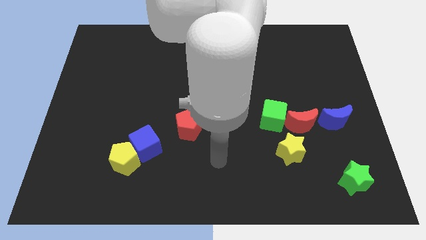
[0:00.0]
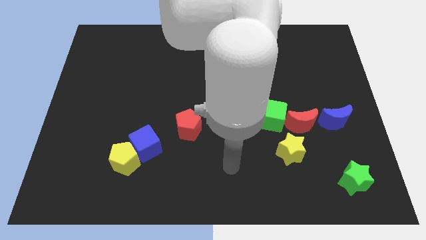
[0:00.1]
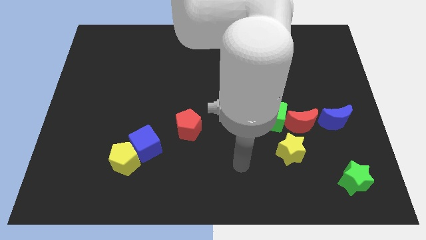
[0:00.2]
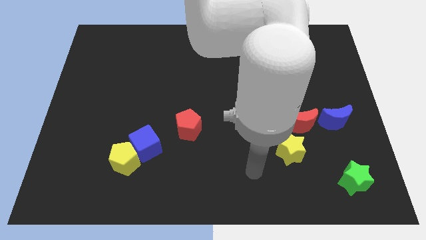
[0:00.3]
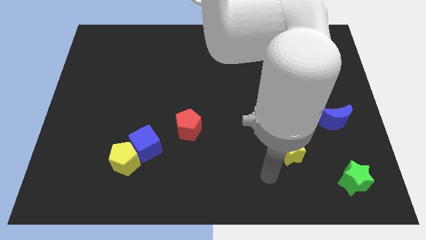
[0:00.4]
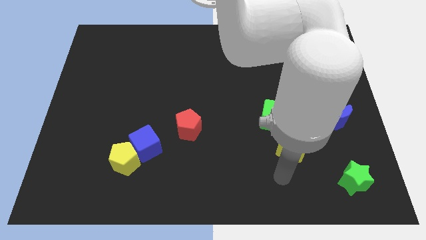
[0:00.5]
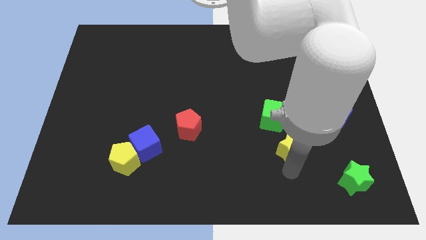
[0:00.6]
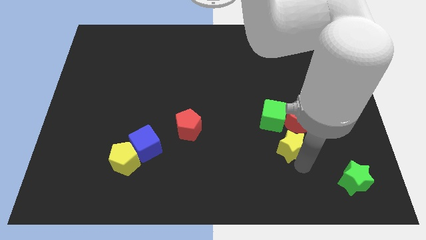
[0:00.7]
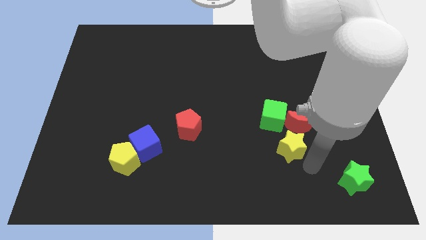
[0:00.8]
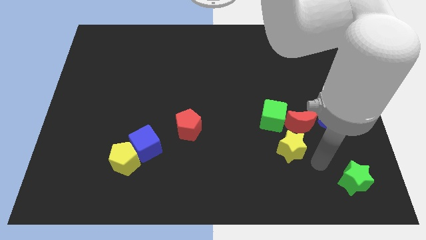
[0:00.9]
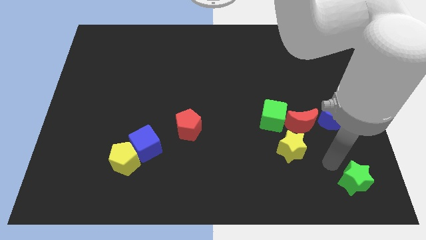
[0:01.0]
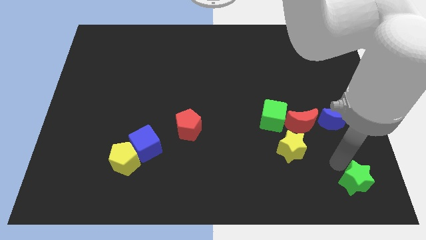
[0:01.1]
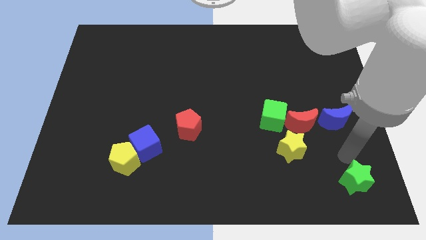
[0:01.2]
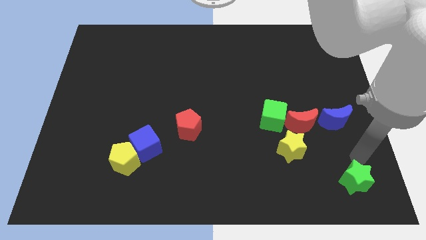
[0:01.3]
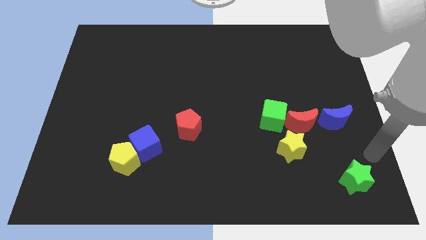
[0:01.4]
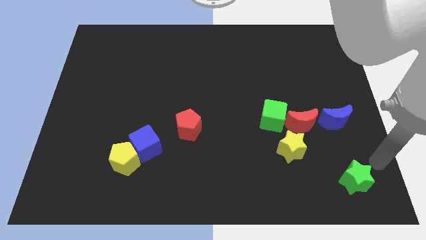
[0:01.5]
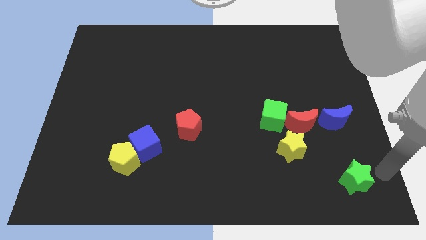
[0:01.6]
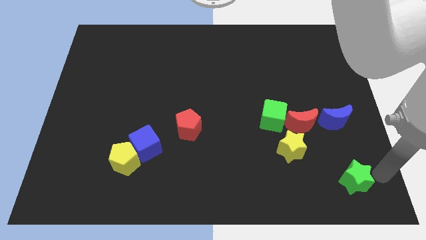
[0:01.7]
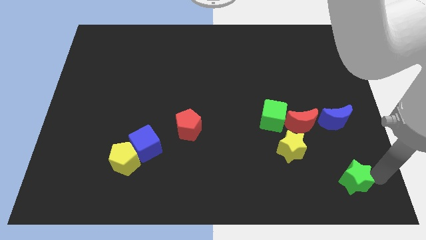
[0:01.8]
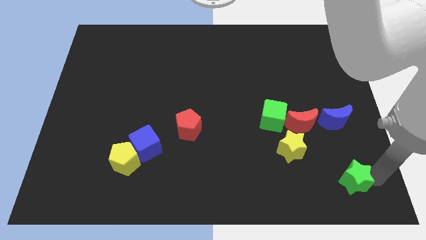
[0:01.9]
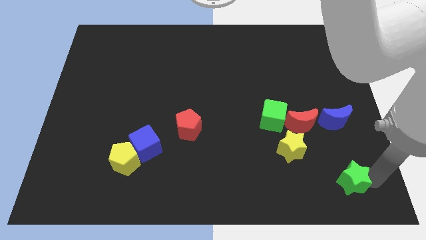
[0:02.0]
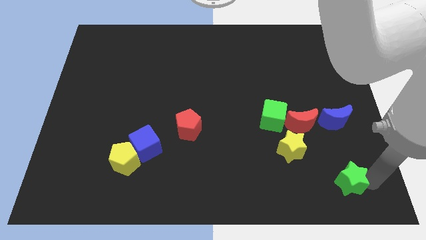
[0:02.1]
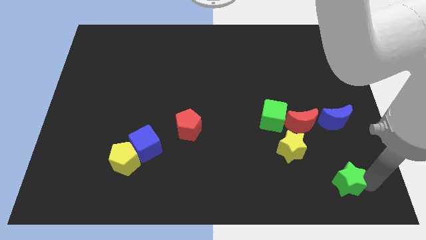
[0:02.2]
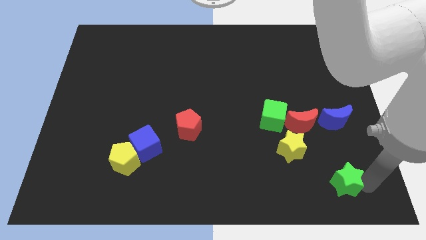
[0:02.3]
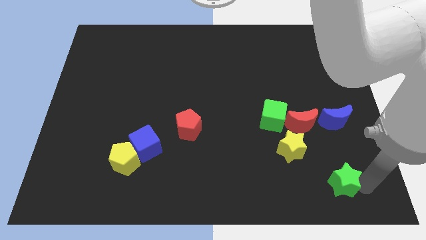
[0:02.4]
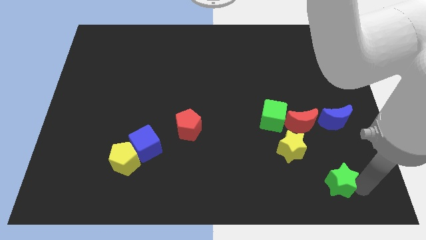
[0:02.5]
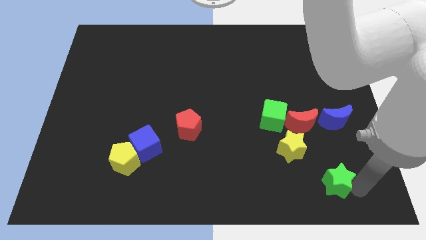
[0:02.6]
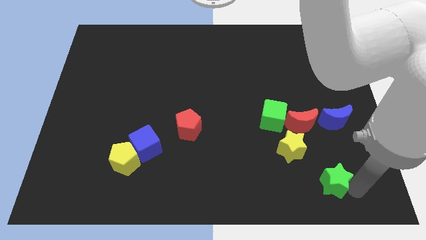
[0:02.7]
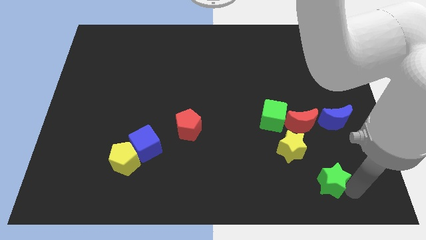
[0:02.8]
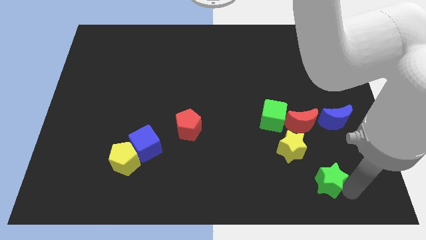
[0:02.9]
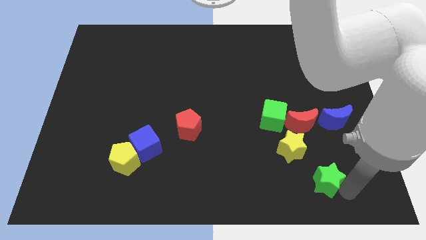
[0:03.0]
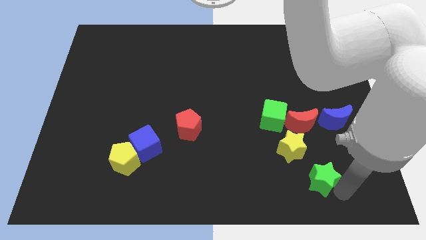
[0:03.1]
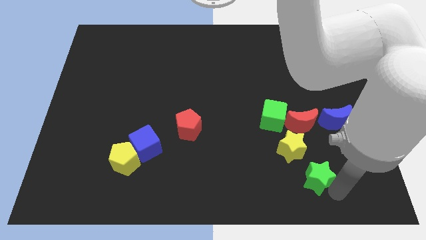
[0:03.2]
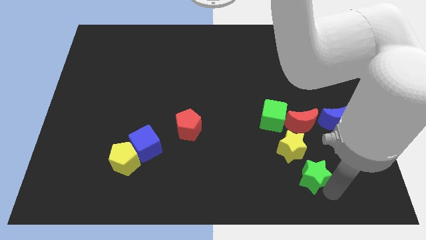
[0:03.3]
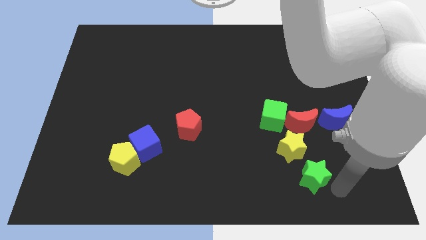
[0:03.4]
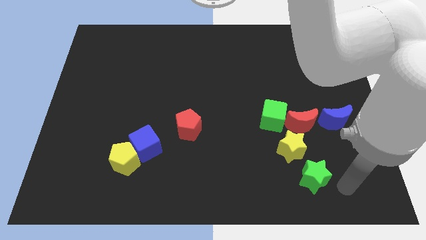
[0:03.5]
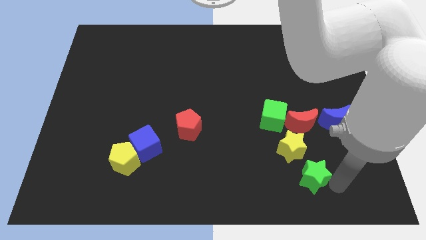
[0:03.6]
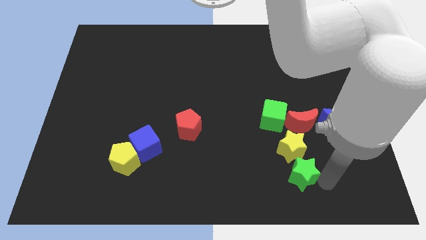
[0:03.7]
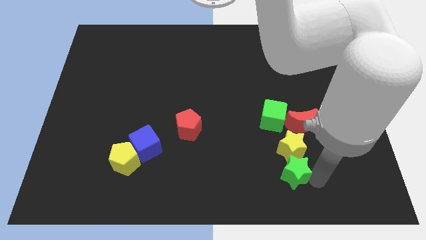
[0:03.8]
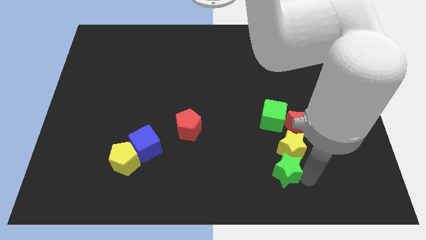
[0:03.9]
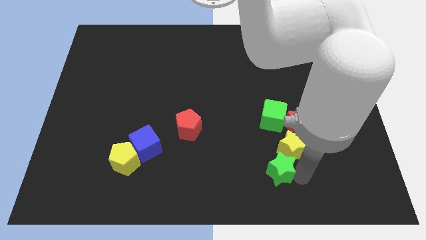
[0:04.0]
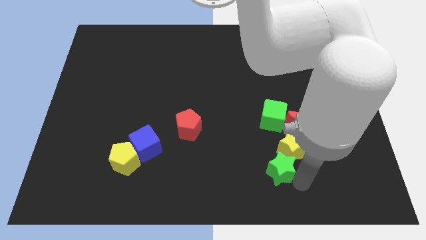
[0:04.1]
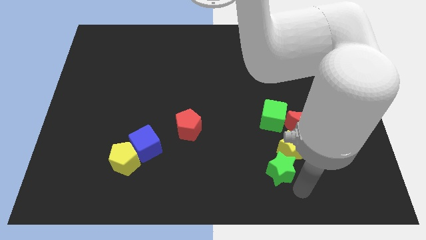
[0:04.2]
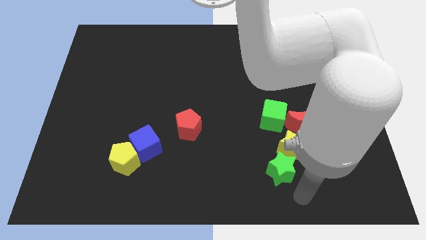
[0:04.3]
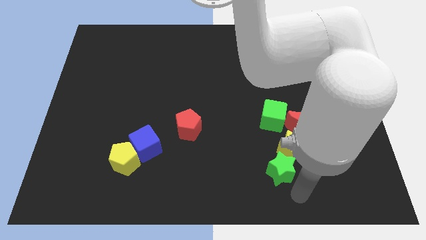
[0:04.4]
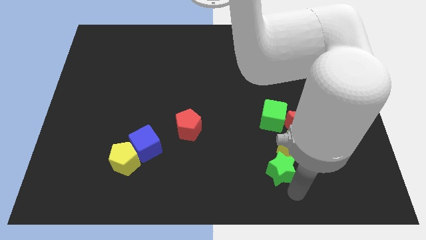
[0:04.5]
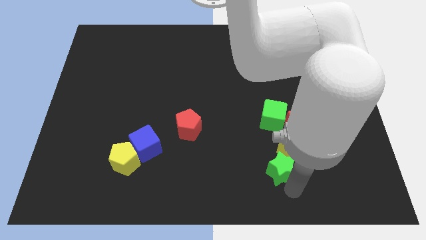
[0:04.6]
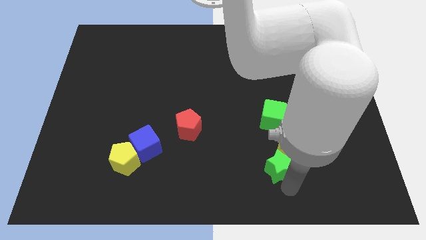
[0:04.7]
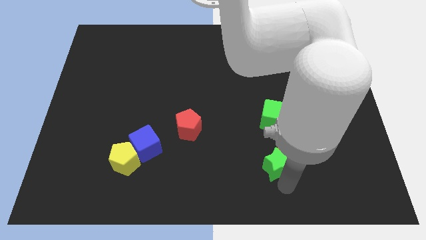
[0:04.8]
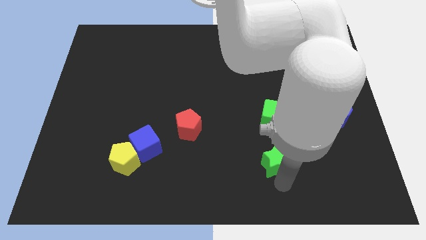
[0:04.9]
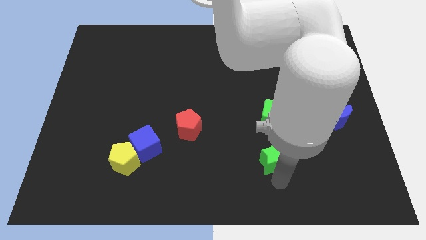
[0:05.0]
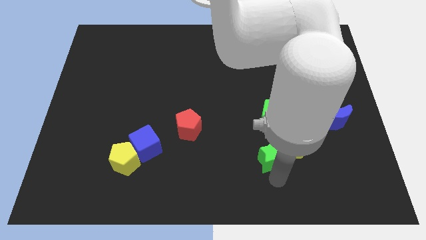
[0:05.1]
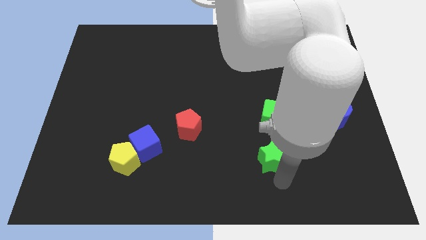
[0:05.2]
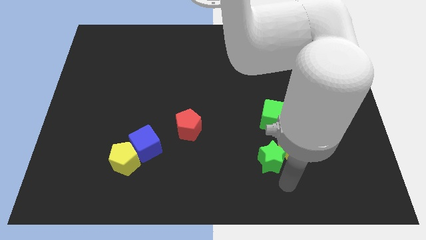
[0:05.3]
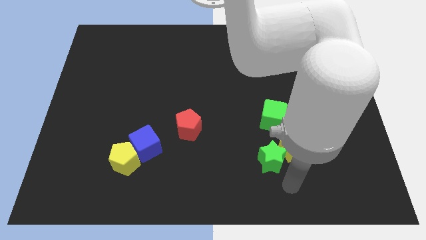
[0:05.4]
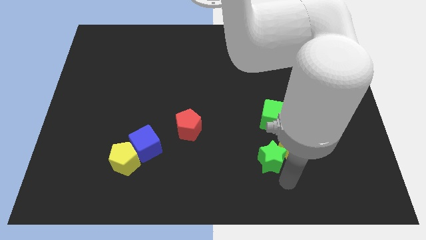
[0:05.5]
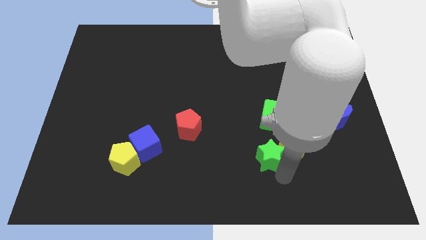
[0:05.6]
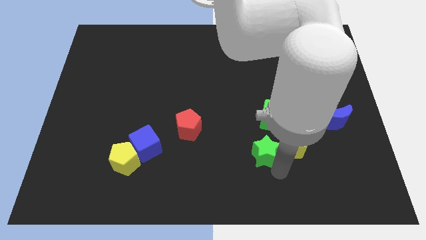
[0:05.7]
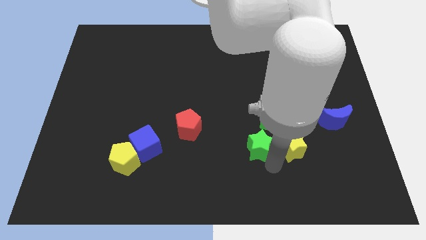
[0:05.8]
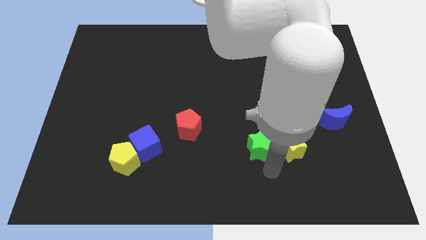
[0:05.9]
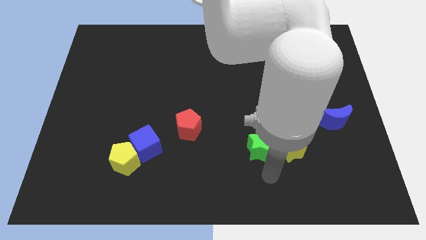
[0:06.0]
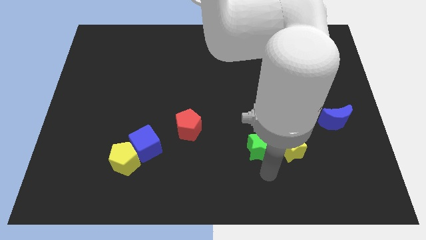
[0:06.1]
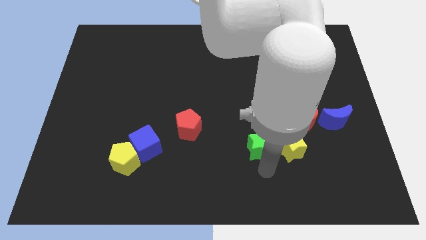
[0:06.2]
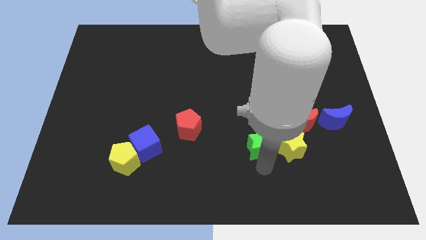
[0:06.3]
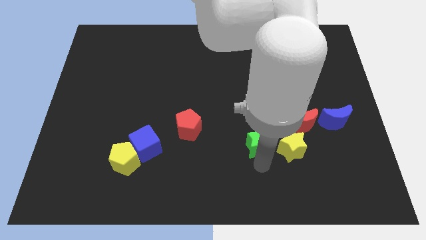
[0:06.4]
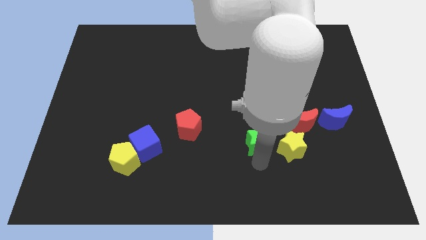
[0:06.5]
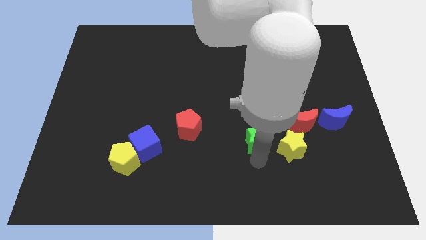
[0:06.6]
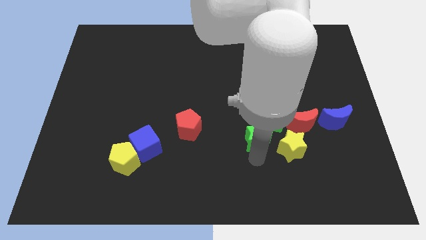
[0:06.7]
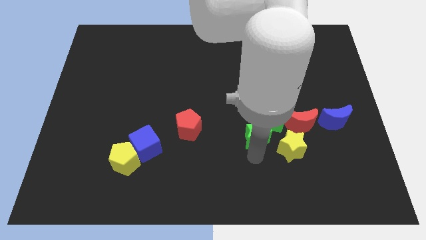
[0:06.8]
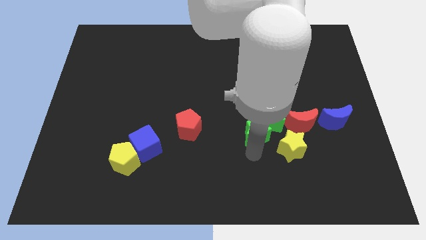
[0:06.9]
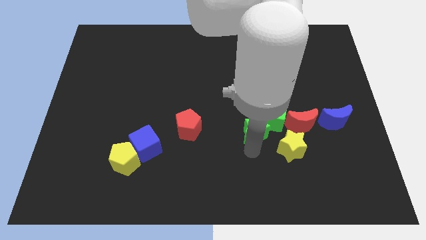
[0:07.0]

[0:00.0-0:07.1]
move the green star up and left

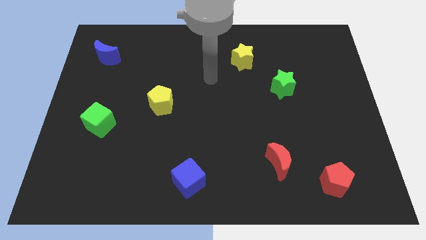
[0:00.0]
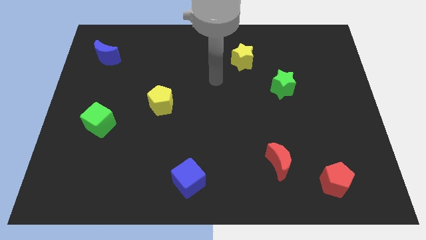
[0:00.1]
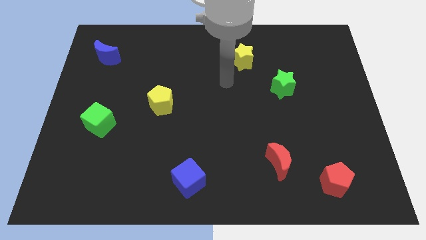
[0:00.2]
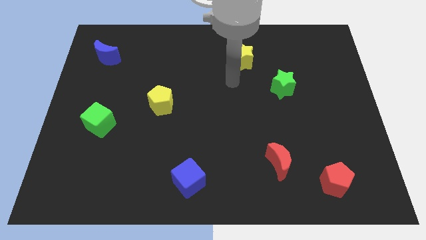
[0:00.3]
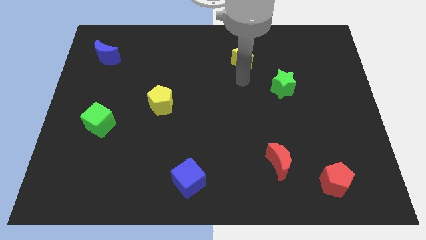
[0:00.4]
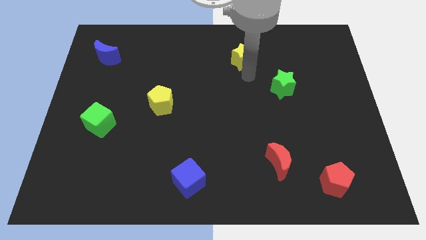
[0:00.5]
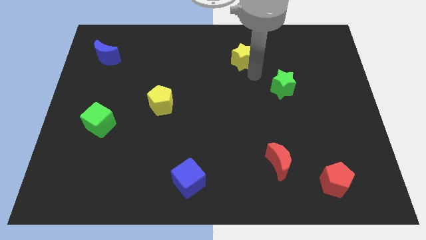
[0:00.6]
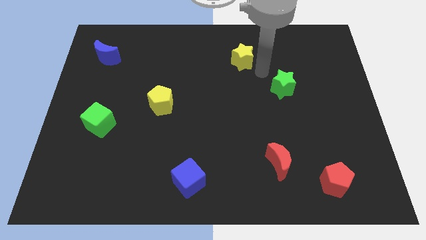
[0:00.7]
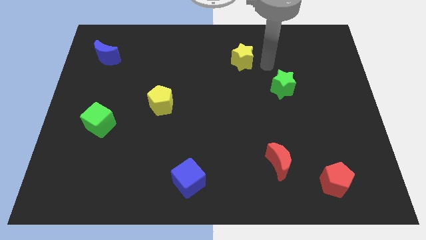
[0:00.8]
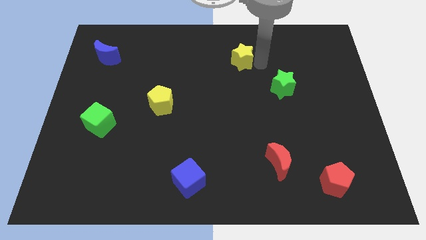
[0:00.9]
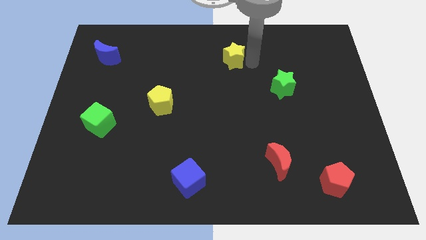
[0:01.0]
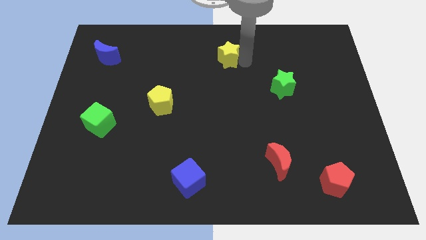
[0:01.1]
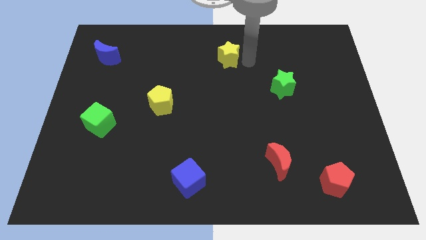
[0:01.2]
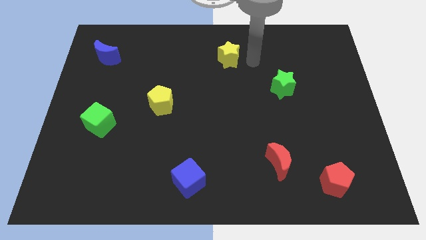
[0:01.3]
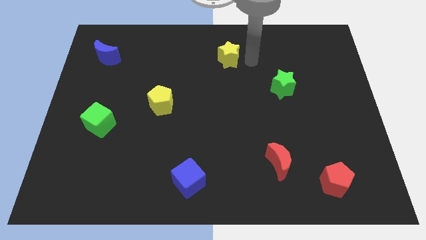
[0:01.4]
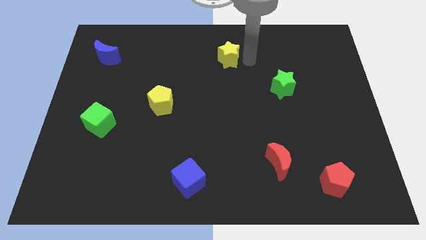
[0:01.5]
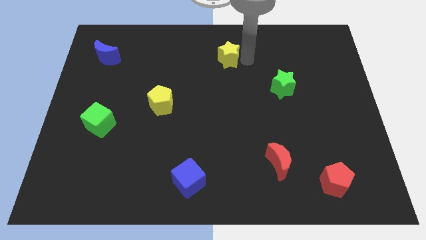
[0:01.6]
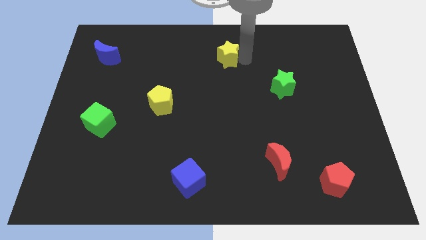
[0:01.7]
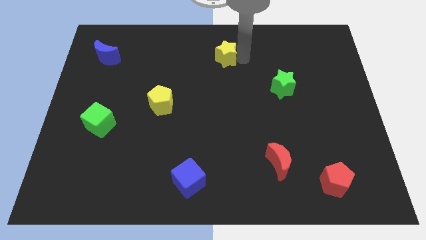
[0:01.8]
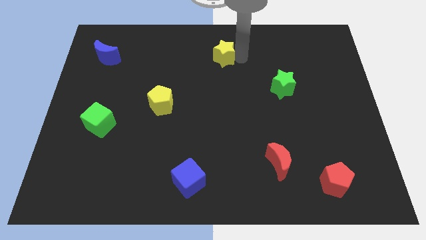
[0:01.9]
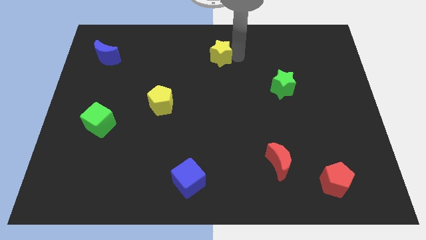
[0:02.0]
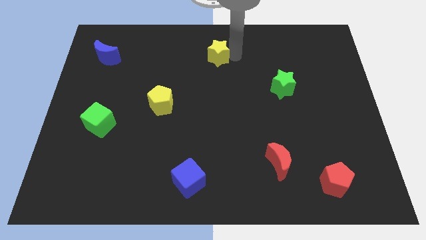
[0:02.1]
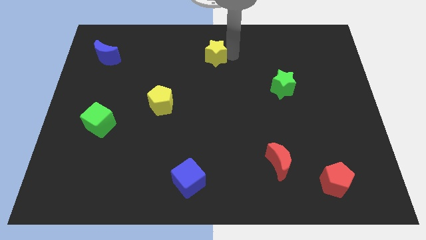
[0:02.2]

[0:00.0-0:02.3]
slightly slide the yellow star to the left
